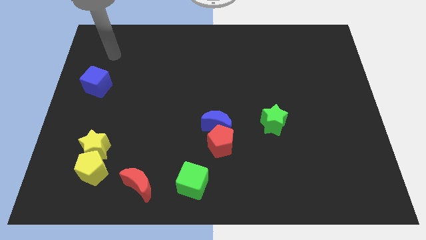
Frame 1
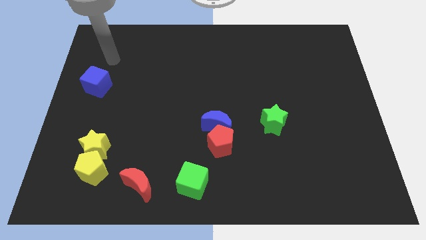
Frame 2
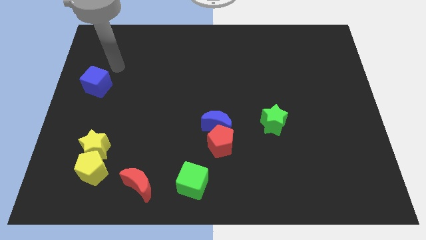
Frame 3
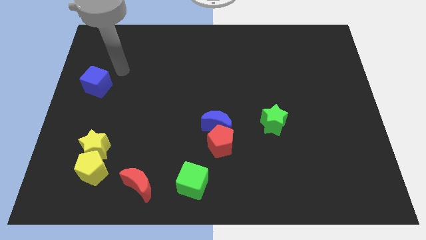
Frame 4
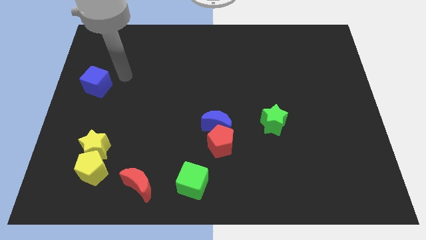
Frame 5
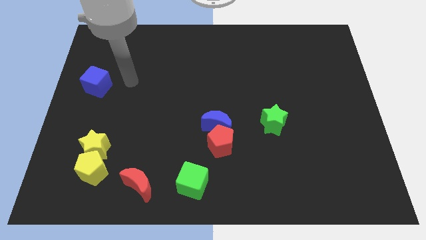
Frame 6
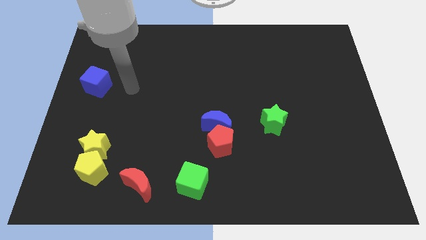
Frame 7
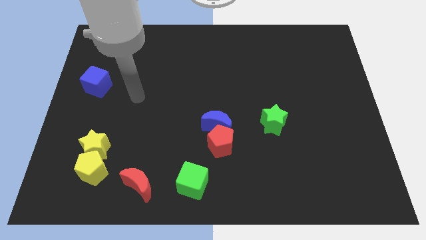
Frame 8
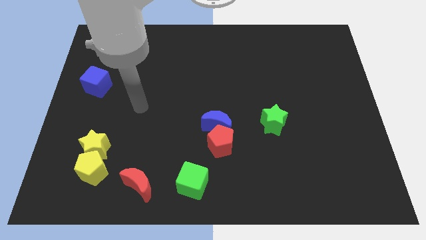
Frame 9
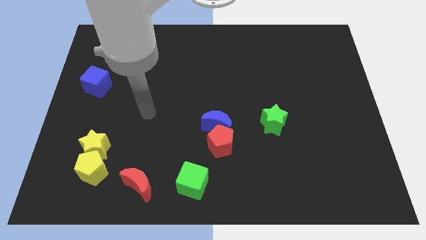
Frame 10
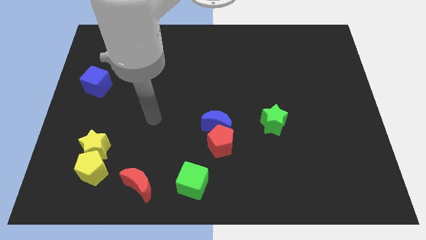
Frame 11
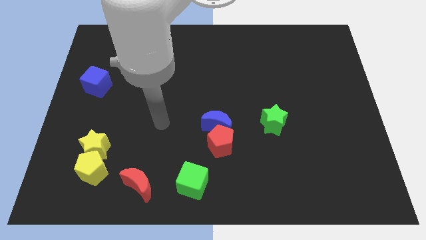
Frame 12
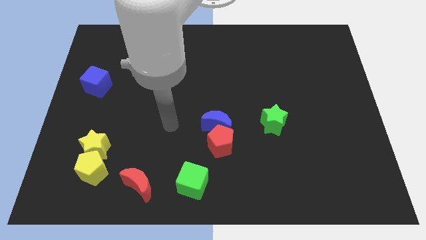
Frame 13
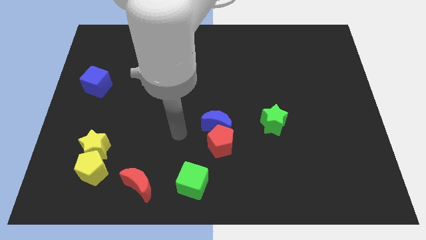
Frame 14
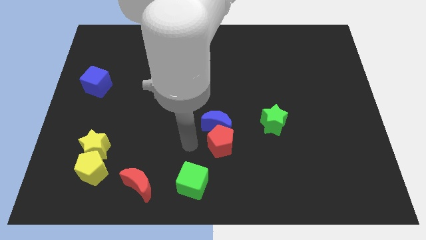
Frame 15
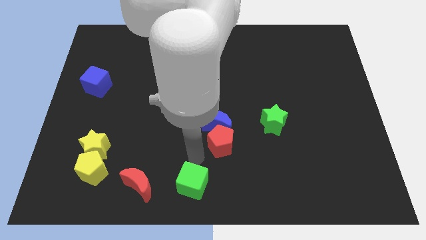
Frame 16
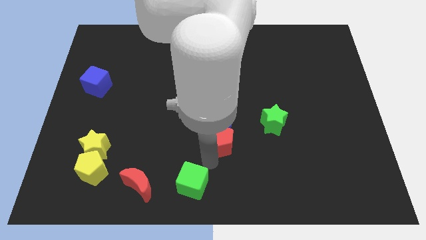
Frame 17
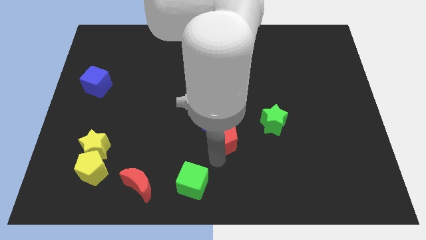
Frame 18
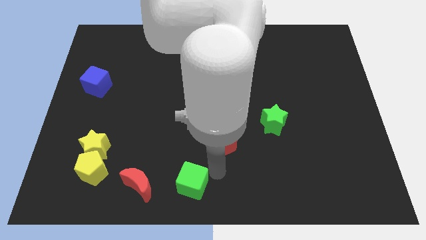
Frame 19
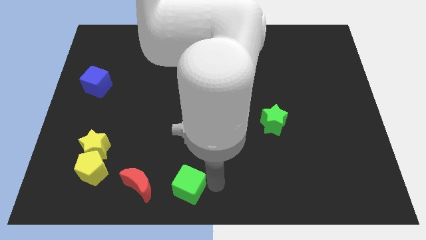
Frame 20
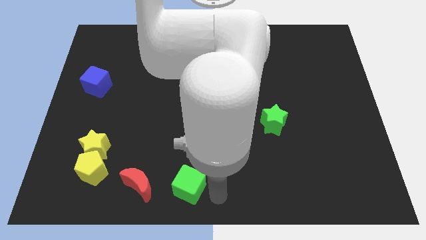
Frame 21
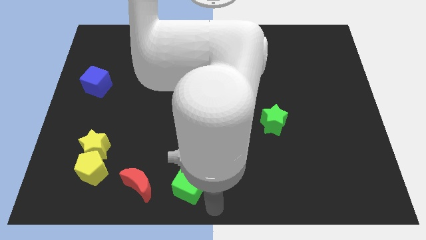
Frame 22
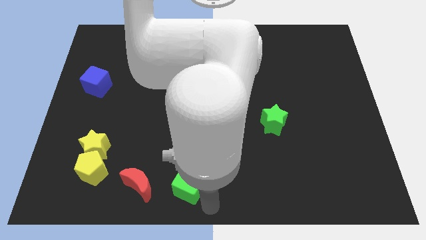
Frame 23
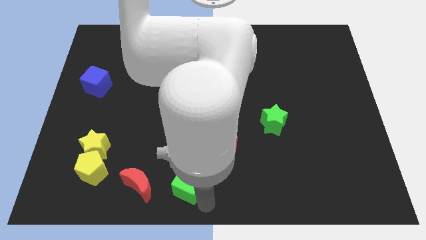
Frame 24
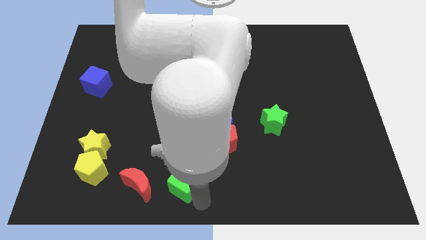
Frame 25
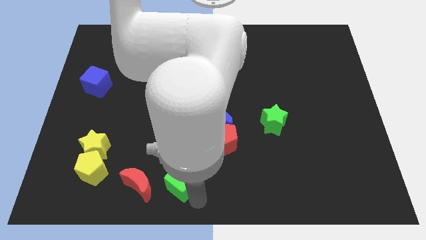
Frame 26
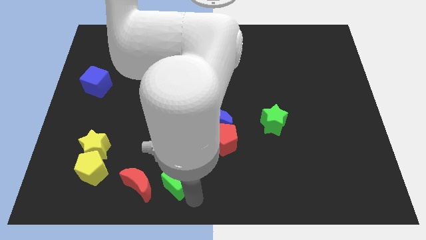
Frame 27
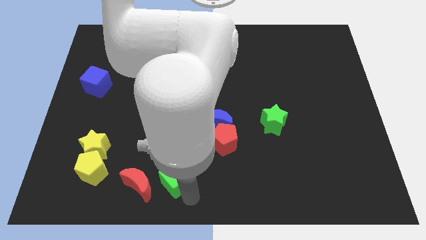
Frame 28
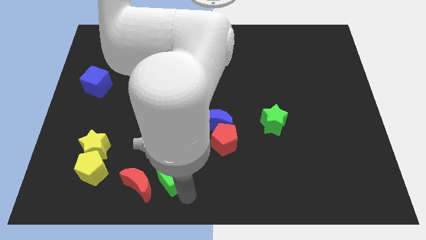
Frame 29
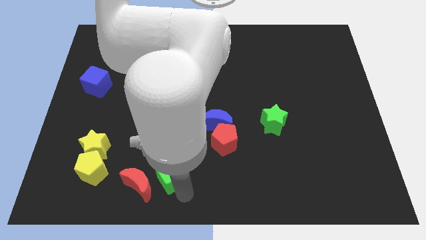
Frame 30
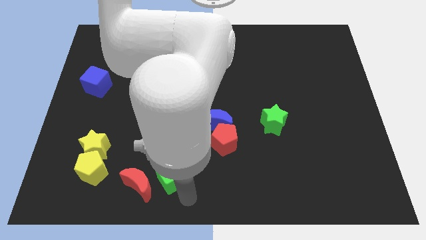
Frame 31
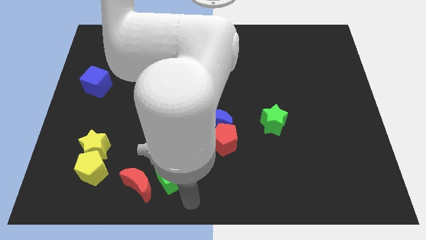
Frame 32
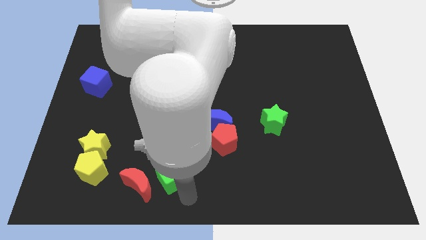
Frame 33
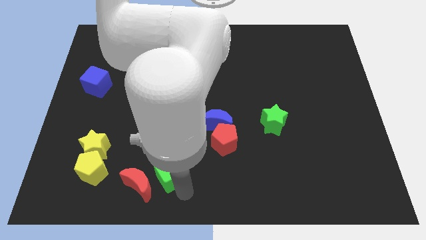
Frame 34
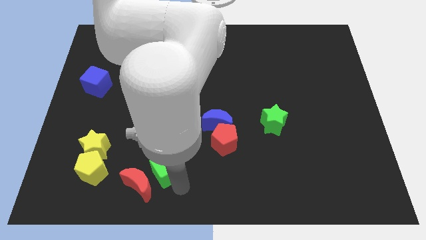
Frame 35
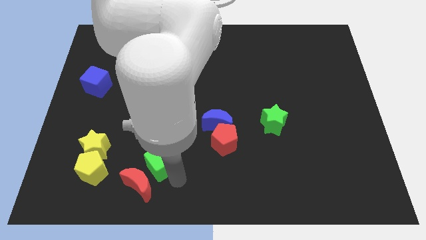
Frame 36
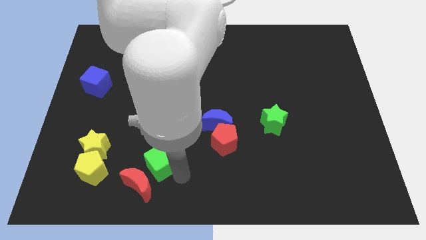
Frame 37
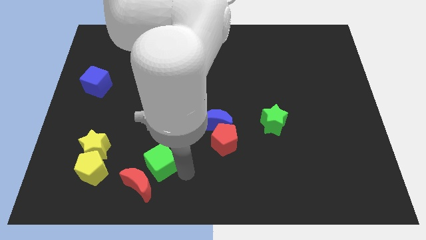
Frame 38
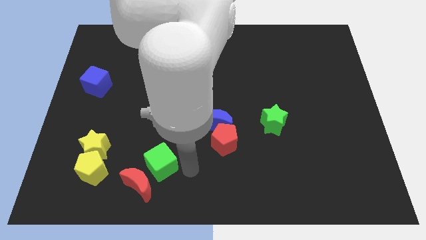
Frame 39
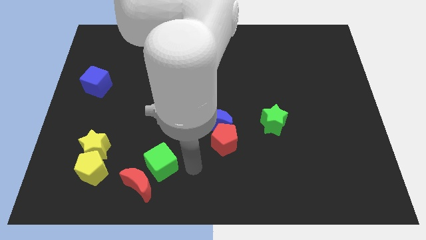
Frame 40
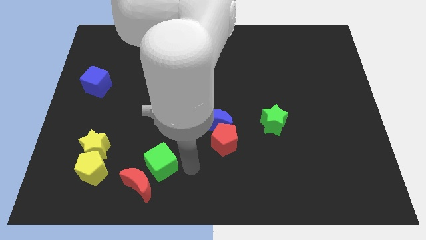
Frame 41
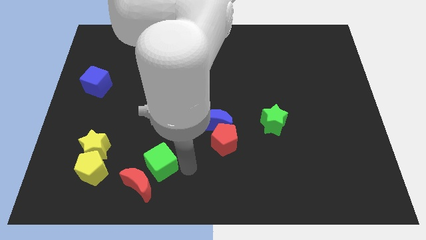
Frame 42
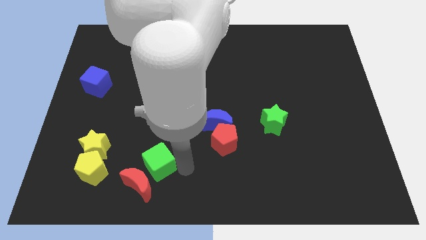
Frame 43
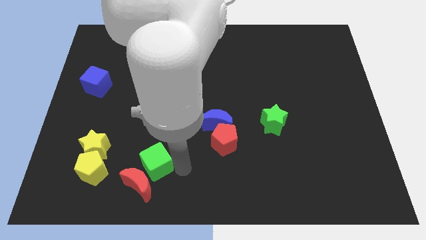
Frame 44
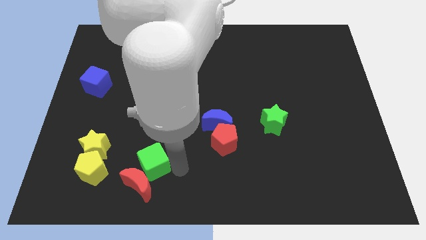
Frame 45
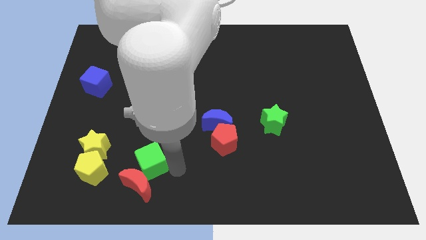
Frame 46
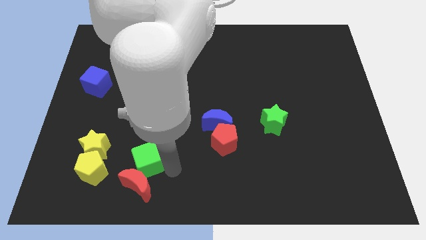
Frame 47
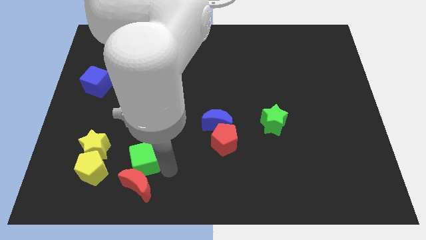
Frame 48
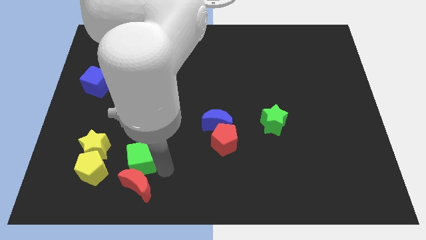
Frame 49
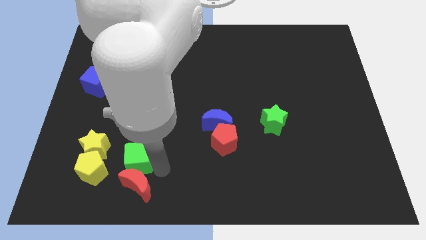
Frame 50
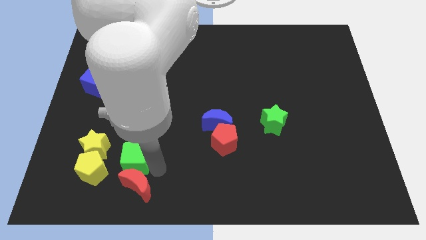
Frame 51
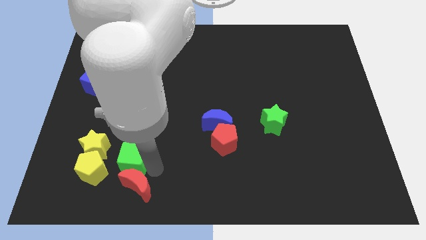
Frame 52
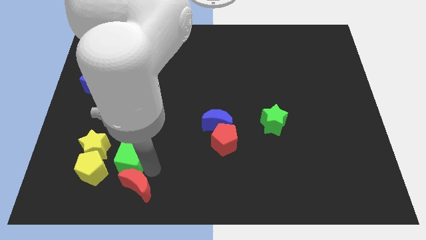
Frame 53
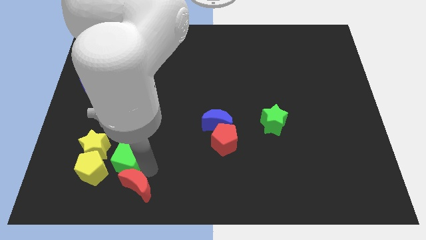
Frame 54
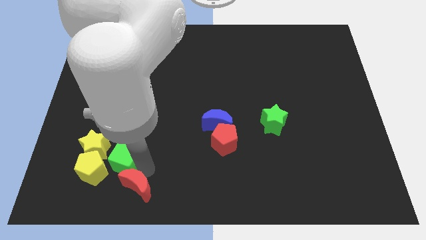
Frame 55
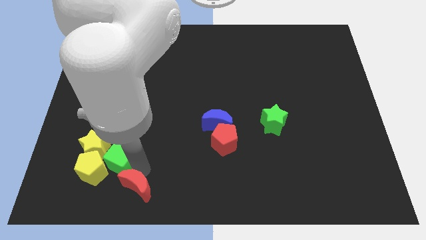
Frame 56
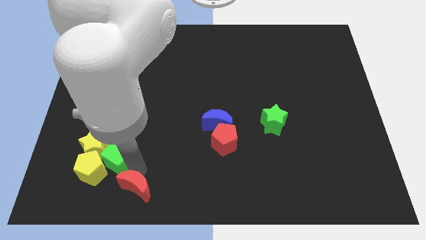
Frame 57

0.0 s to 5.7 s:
move the green cube next to the yellow star
